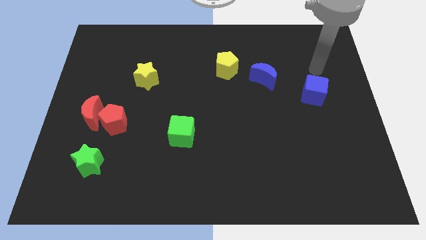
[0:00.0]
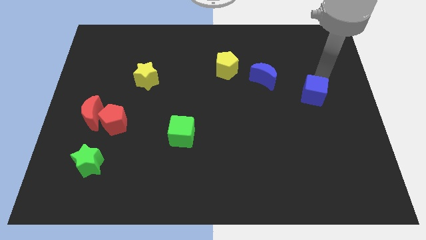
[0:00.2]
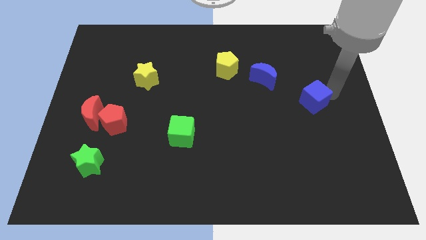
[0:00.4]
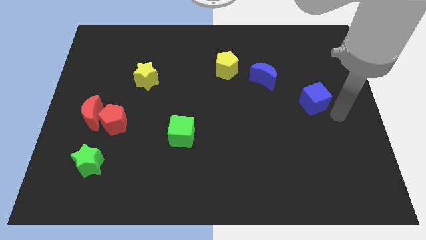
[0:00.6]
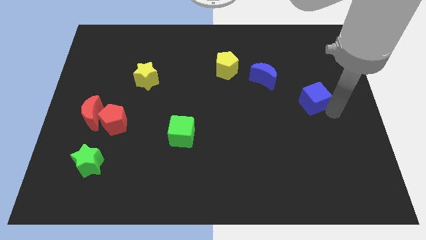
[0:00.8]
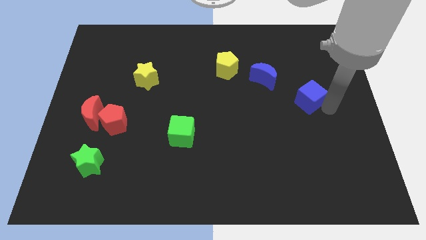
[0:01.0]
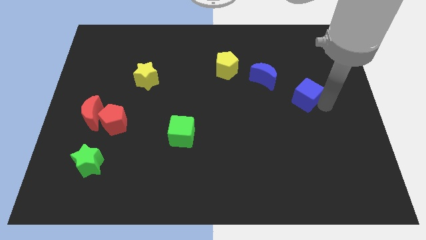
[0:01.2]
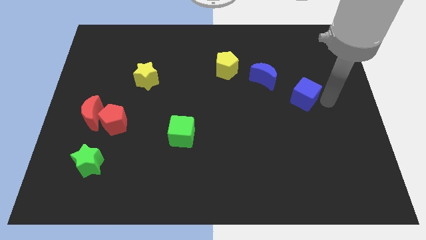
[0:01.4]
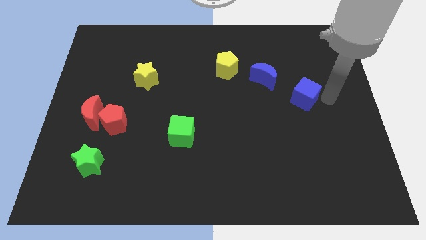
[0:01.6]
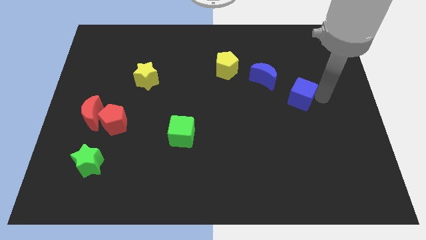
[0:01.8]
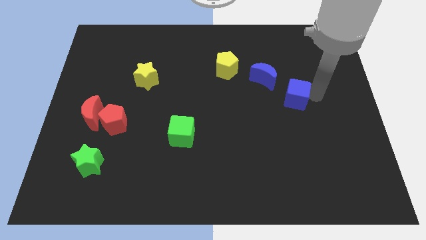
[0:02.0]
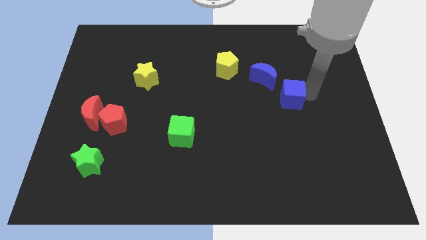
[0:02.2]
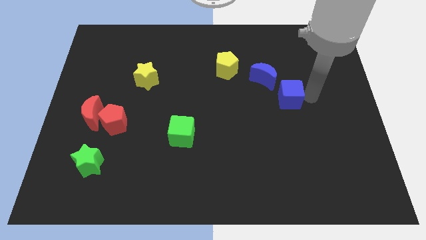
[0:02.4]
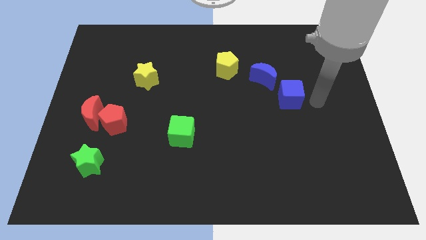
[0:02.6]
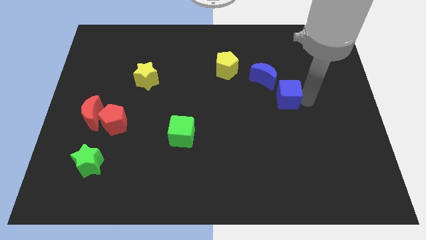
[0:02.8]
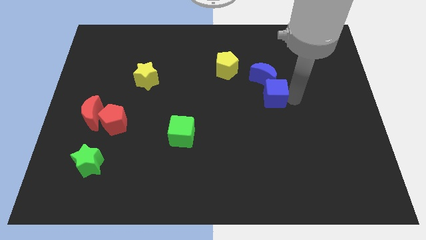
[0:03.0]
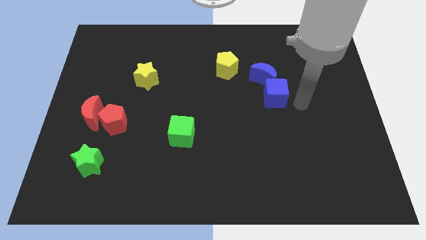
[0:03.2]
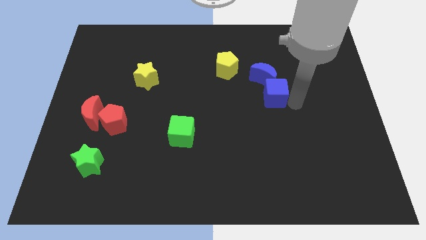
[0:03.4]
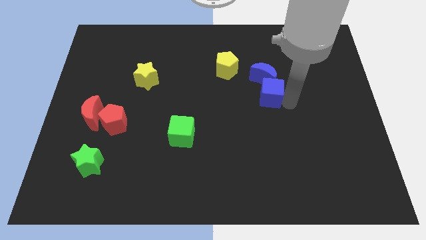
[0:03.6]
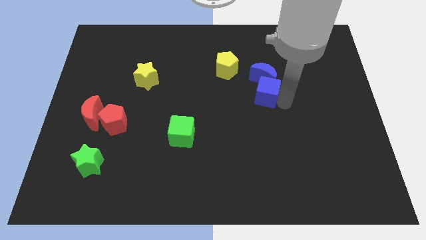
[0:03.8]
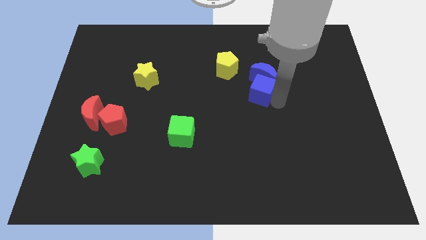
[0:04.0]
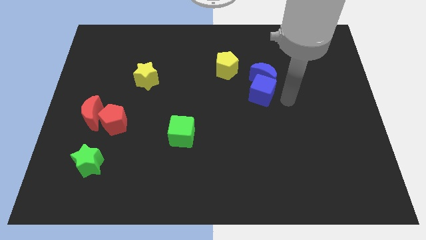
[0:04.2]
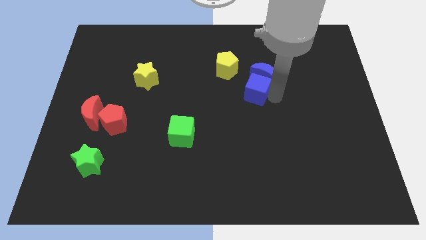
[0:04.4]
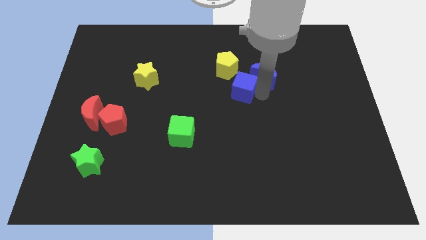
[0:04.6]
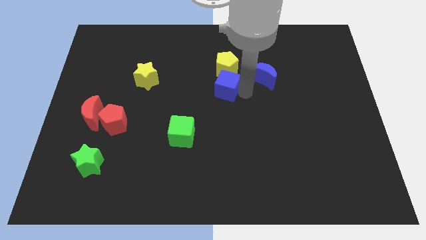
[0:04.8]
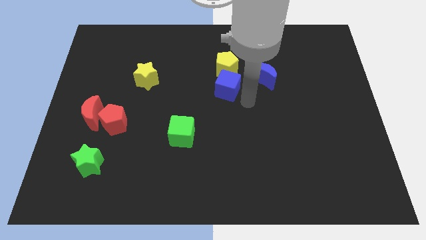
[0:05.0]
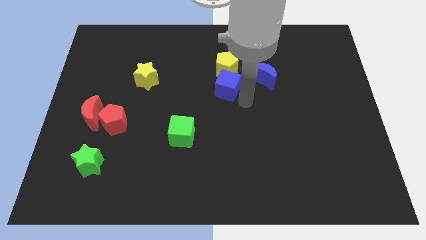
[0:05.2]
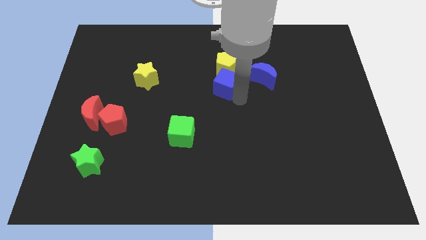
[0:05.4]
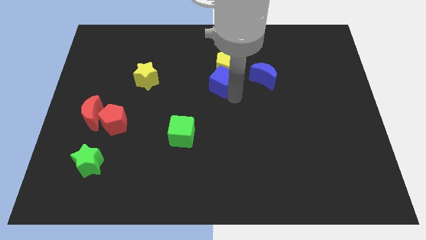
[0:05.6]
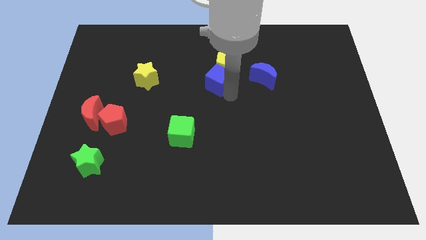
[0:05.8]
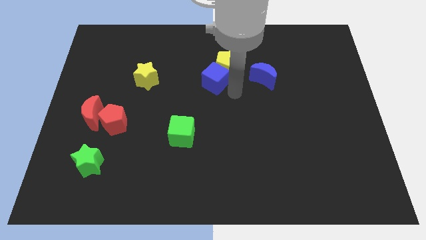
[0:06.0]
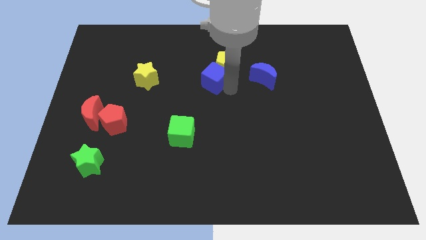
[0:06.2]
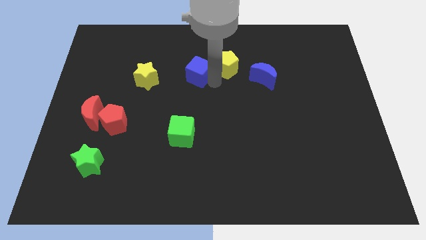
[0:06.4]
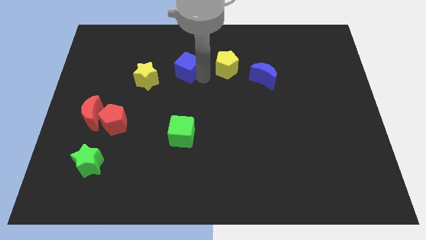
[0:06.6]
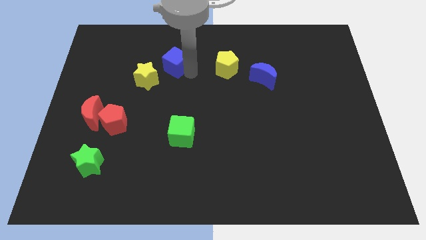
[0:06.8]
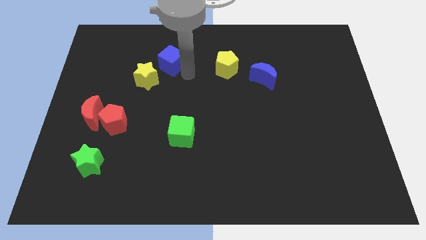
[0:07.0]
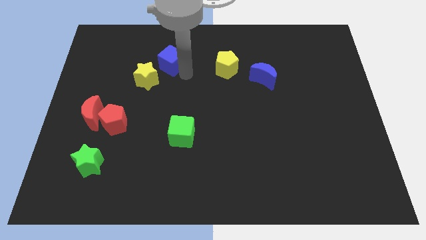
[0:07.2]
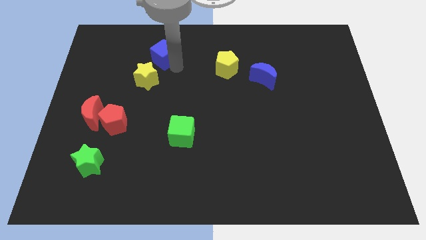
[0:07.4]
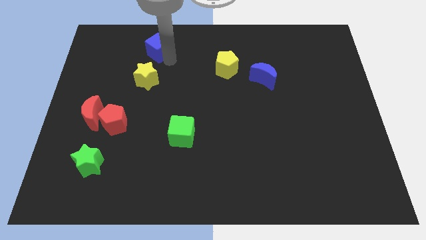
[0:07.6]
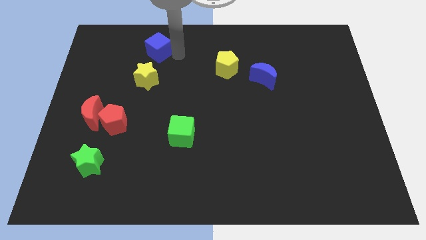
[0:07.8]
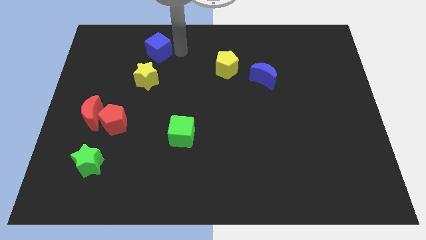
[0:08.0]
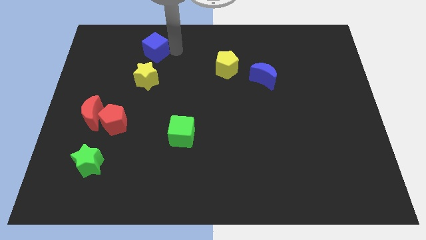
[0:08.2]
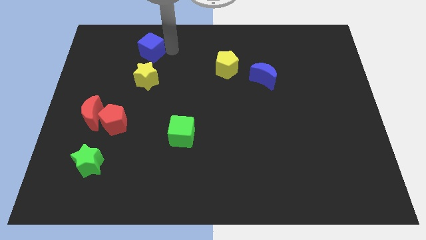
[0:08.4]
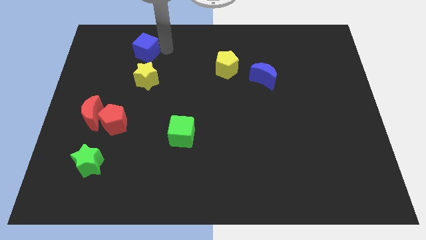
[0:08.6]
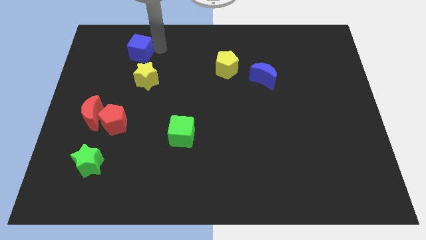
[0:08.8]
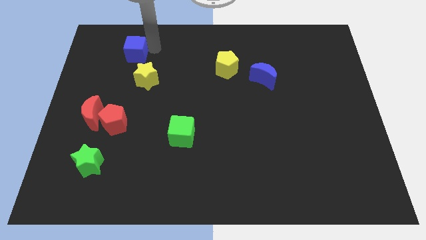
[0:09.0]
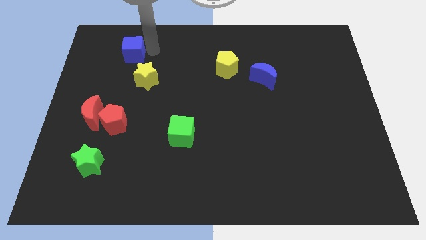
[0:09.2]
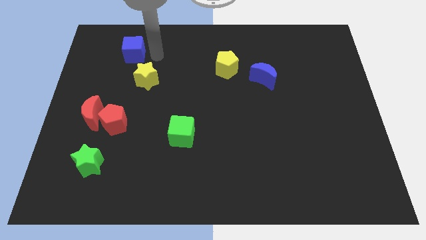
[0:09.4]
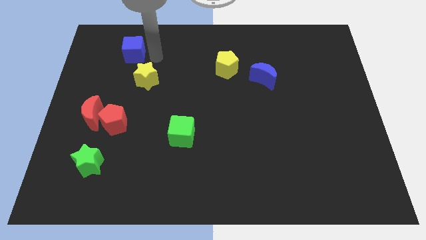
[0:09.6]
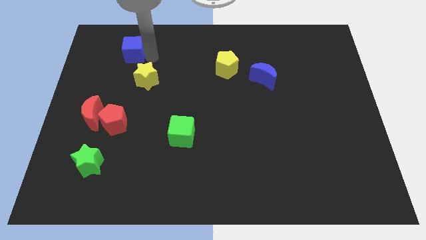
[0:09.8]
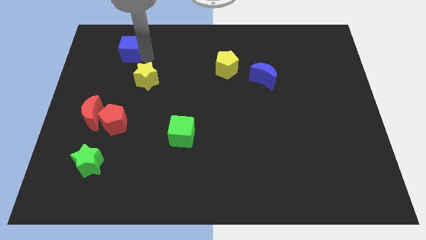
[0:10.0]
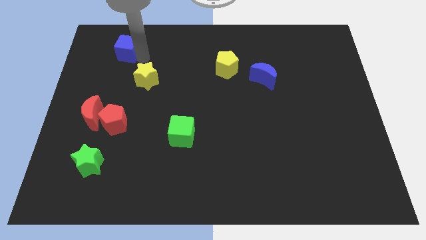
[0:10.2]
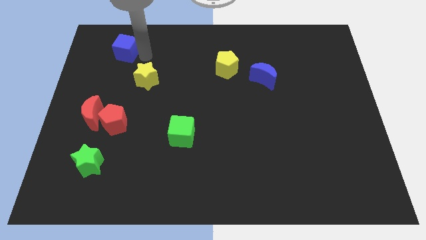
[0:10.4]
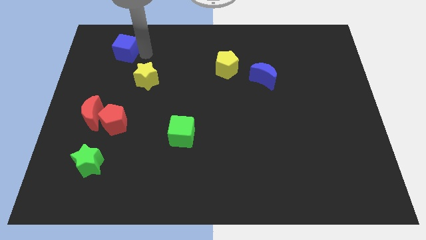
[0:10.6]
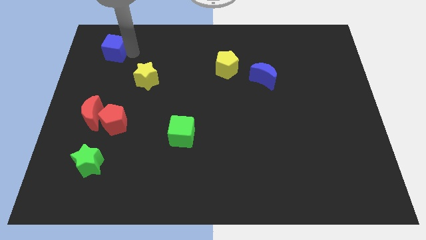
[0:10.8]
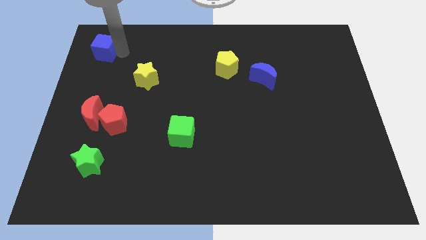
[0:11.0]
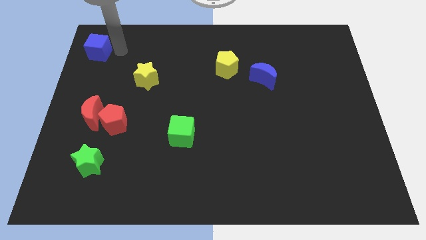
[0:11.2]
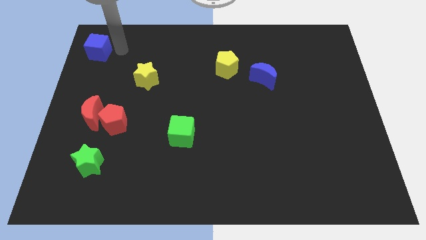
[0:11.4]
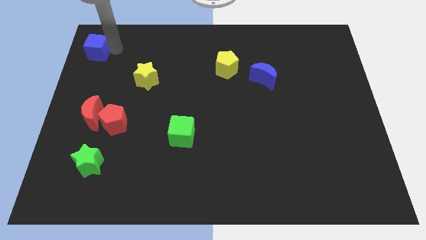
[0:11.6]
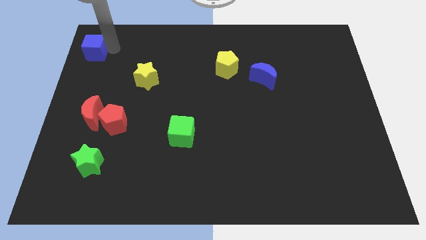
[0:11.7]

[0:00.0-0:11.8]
push the blue cube to the top left corner
